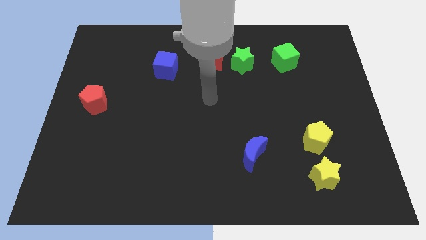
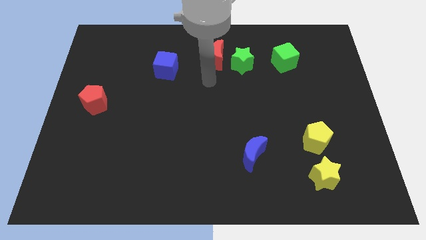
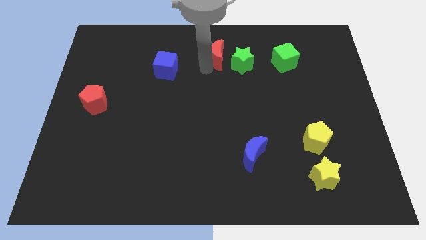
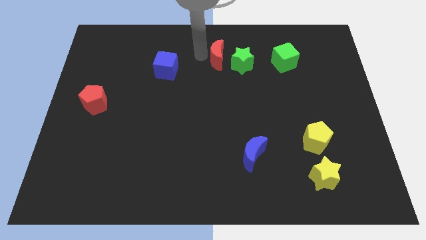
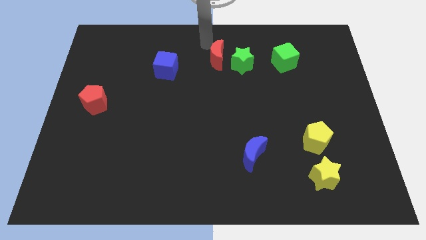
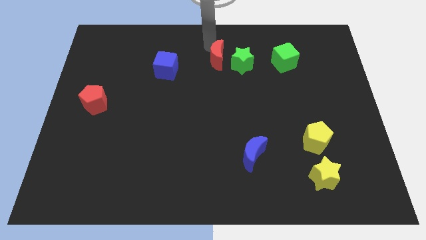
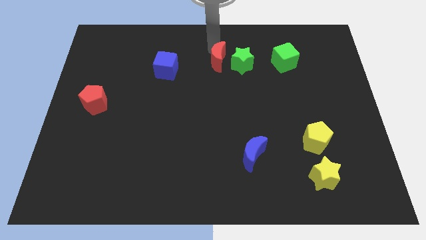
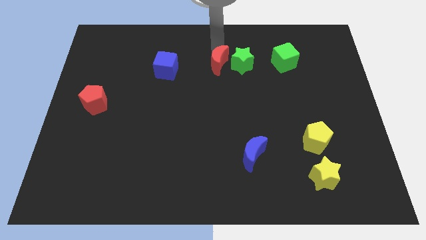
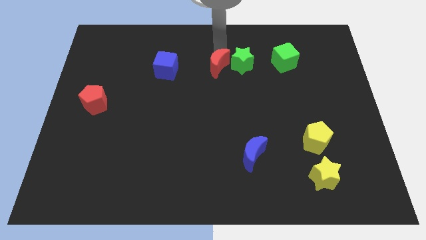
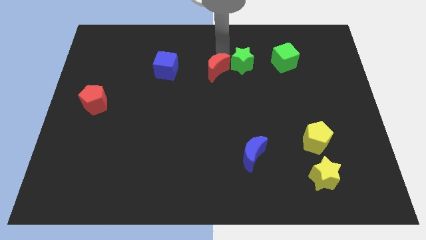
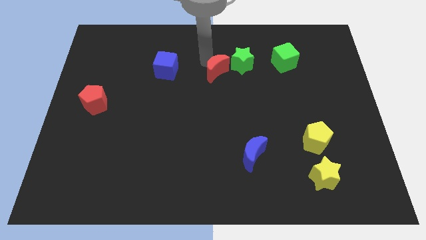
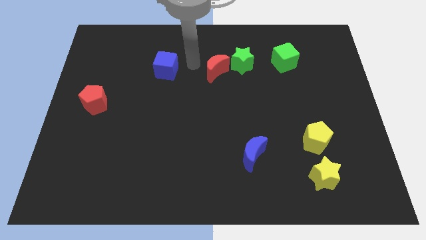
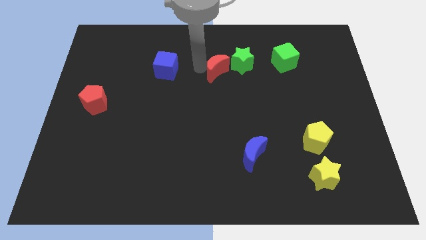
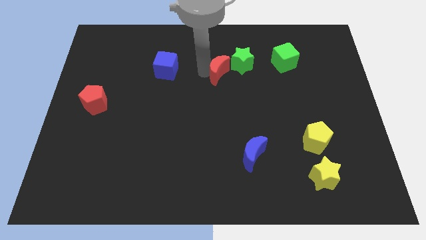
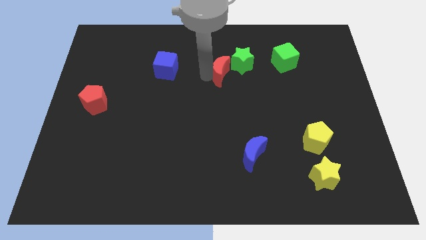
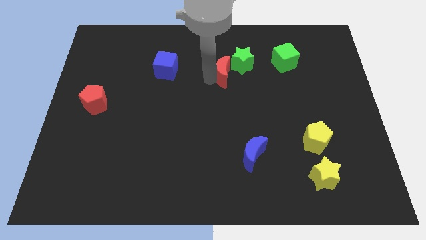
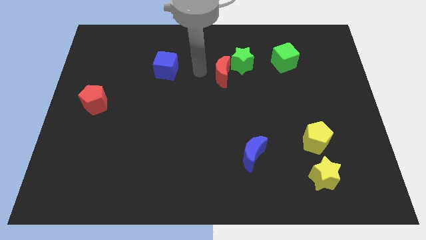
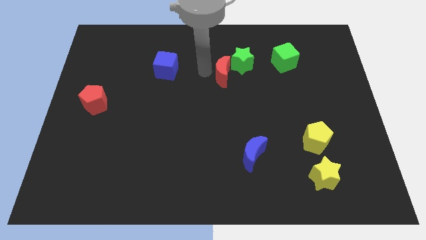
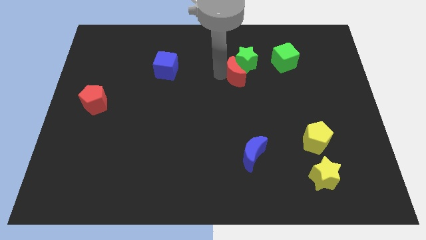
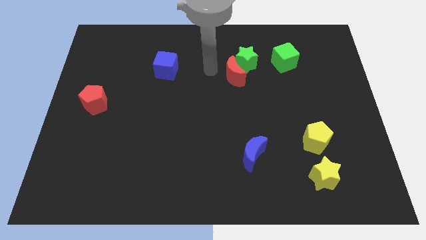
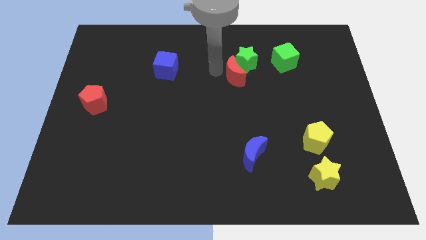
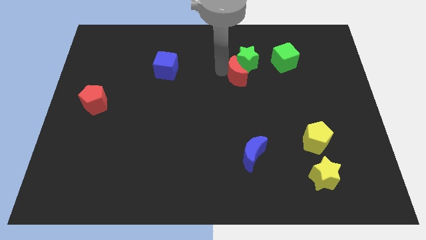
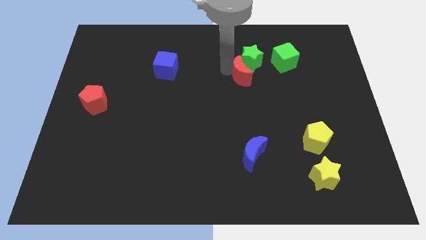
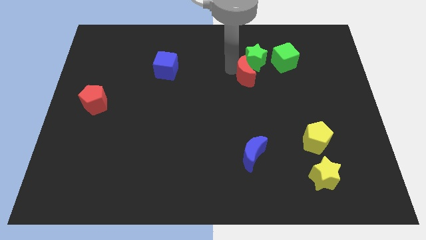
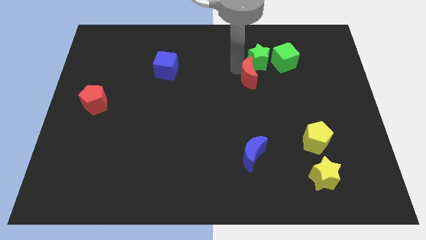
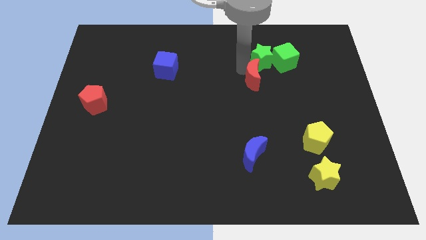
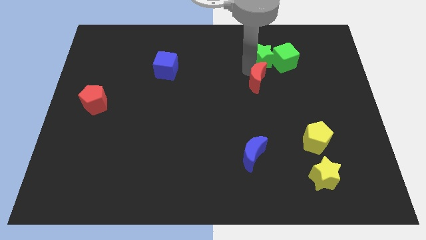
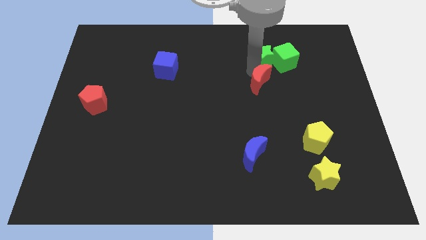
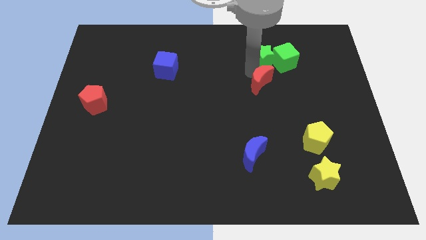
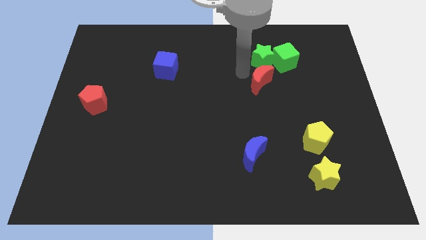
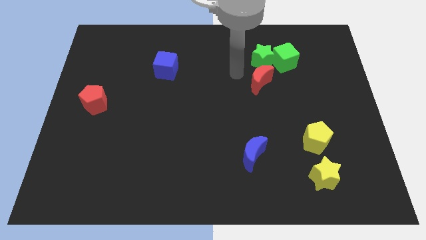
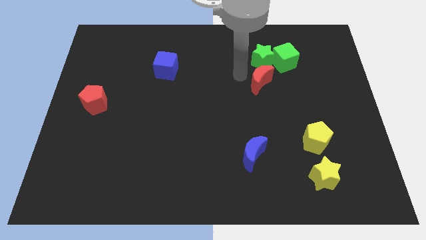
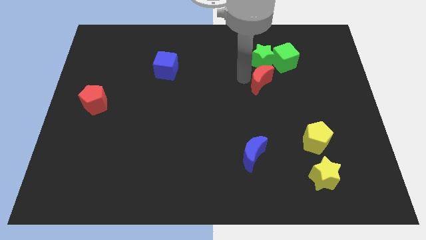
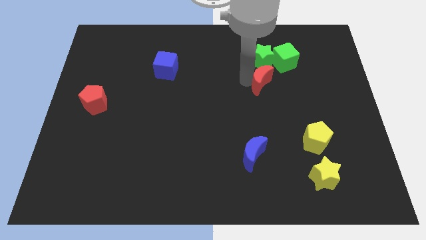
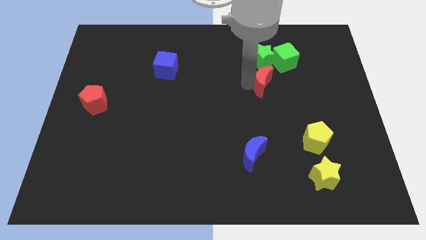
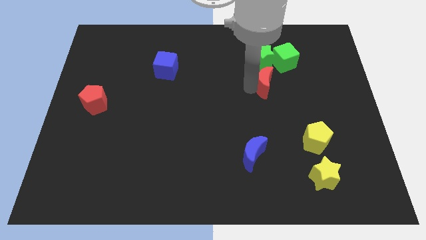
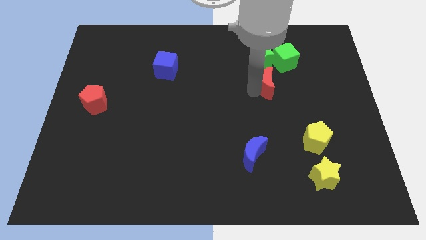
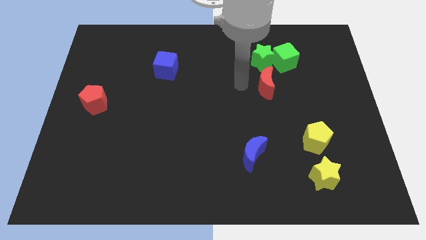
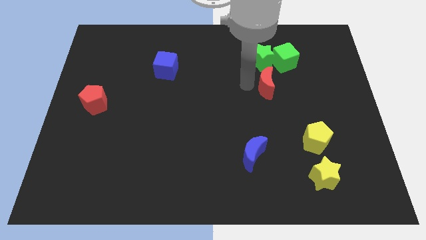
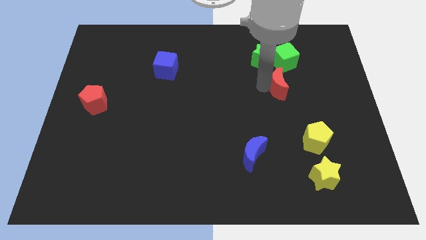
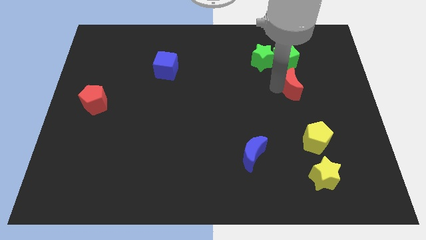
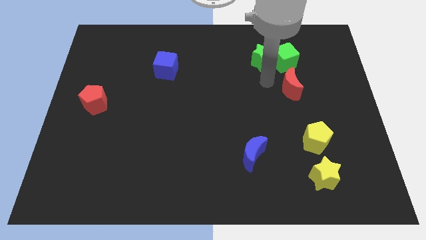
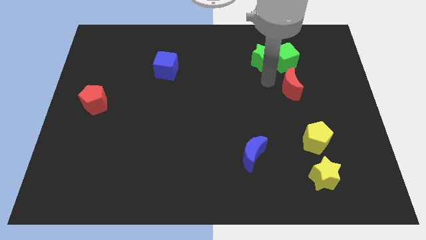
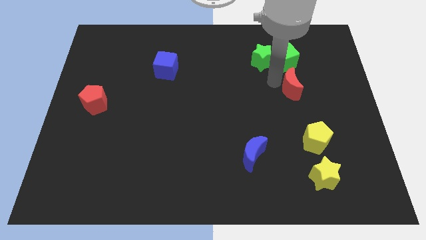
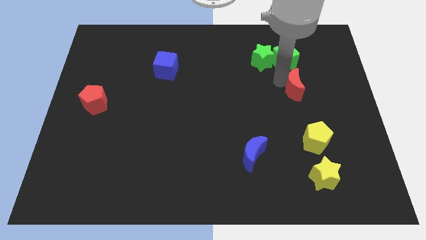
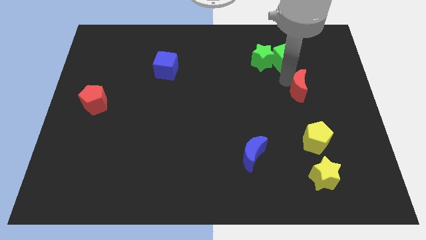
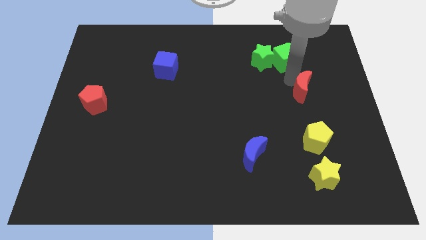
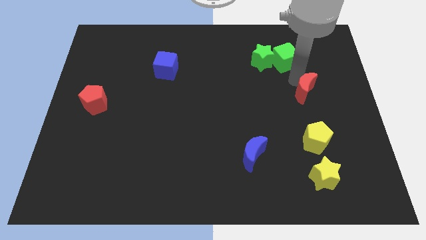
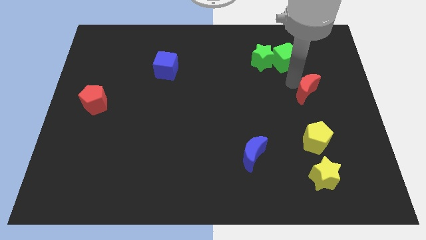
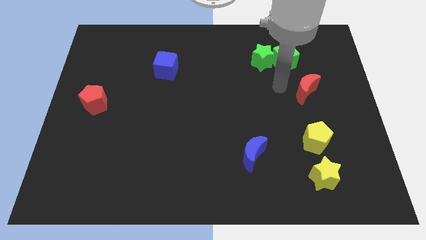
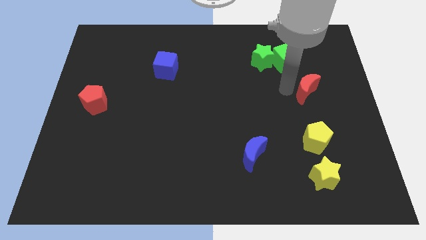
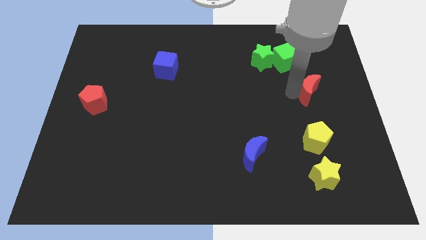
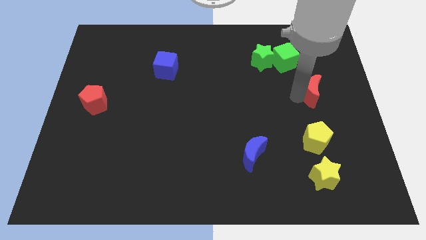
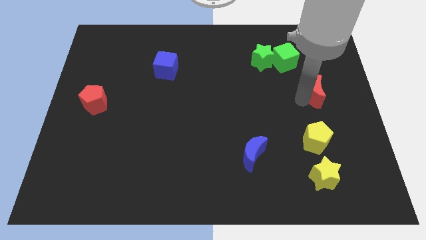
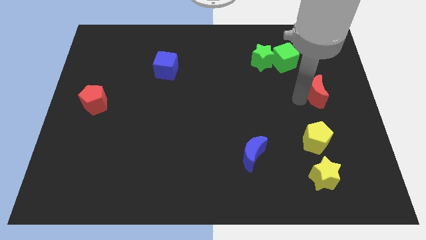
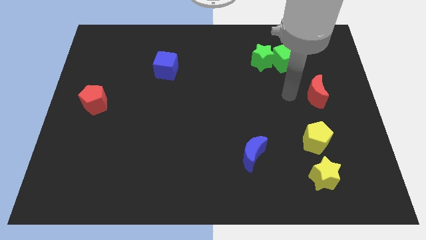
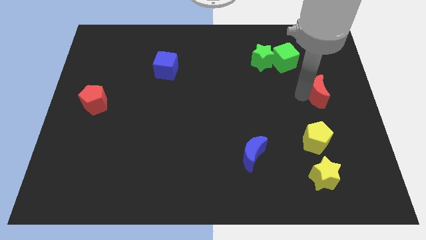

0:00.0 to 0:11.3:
put the red moon to the center right

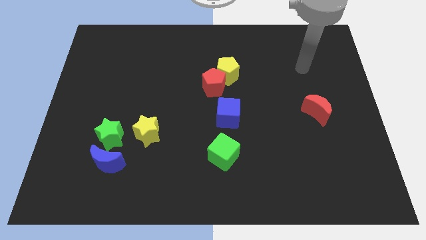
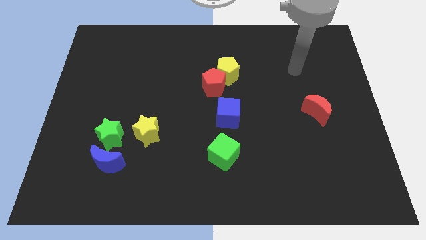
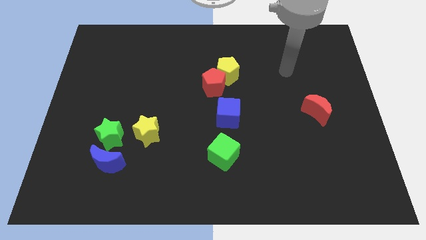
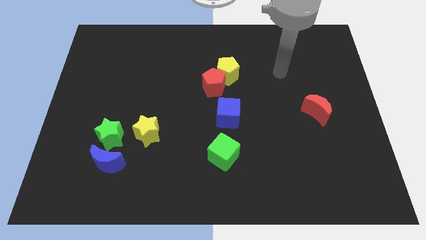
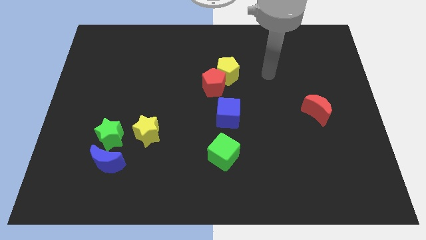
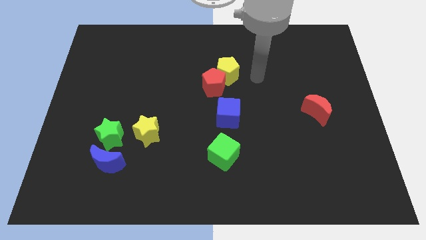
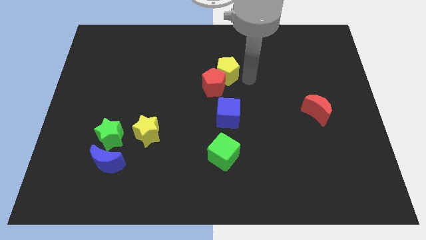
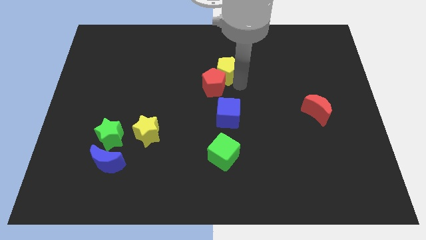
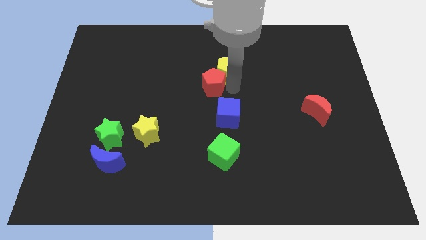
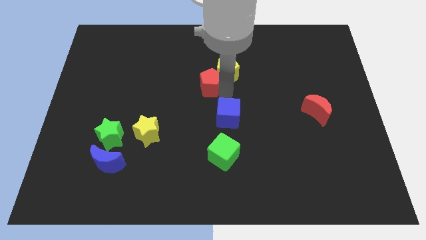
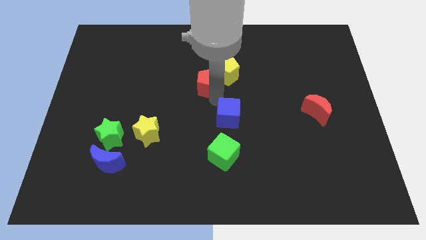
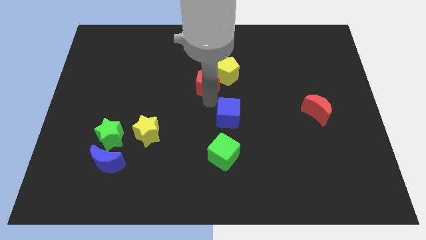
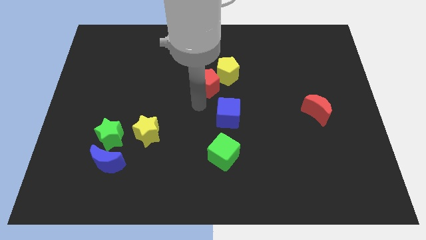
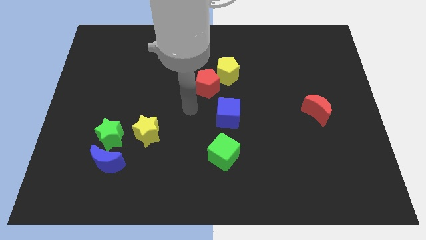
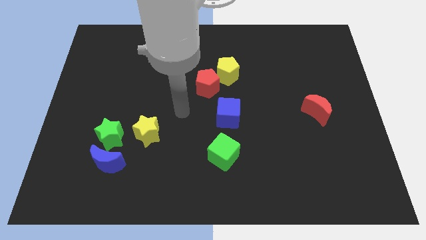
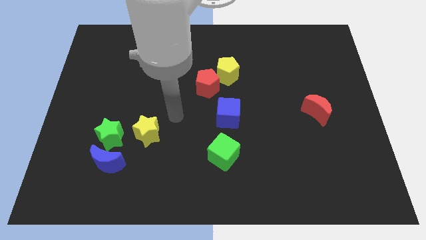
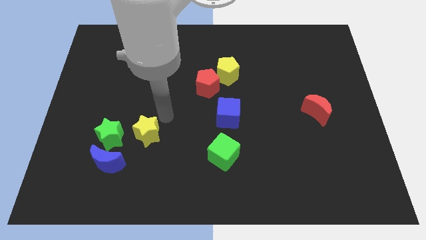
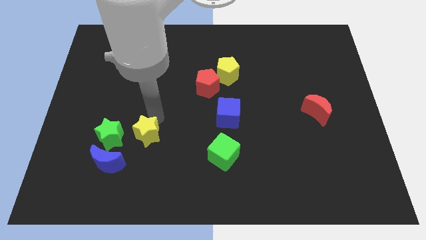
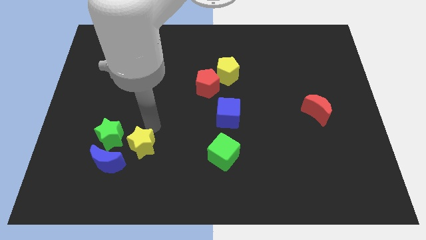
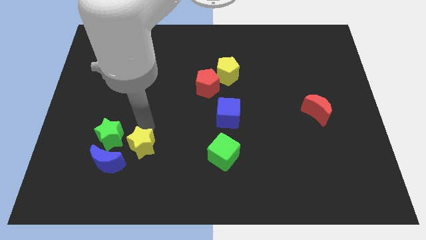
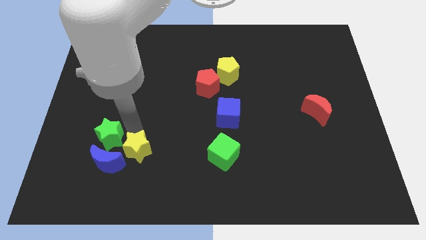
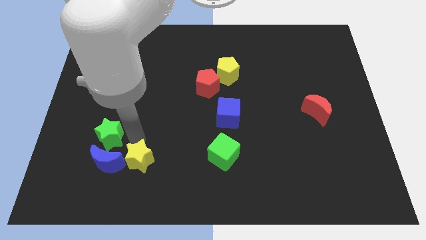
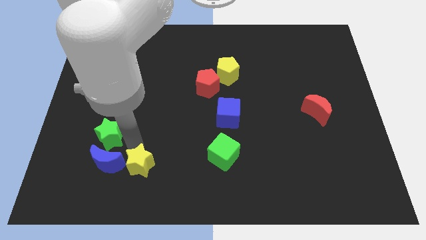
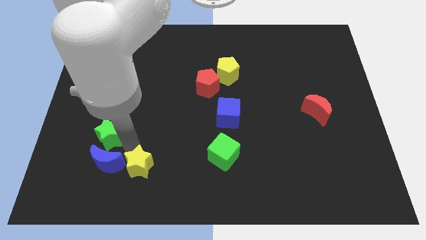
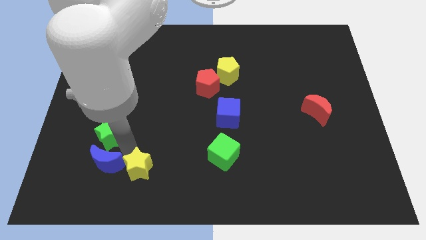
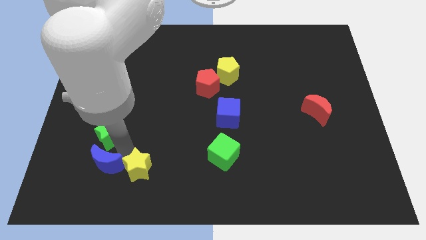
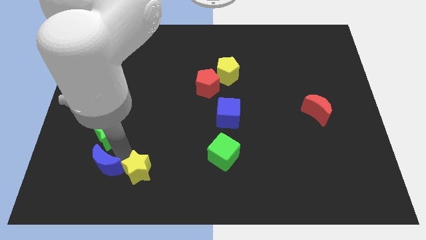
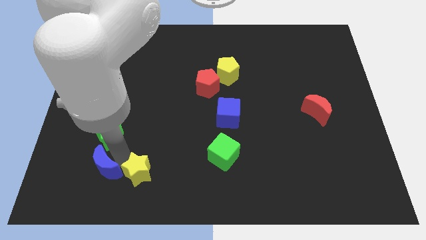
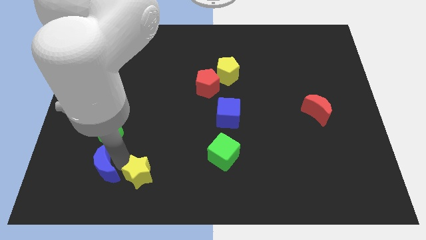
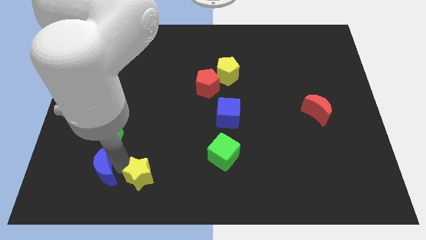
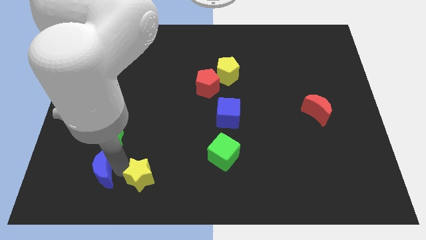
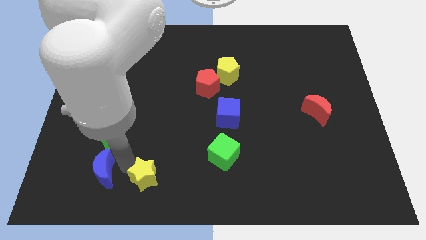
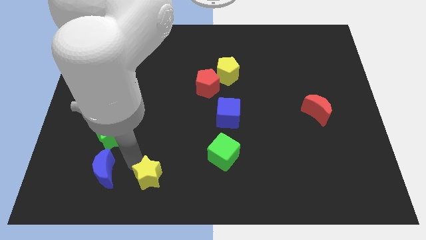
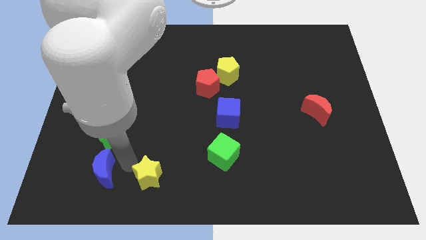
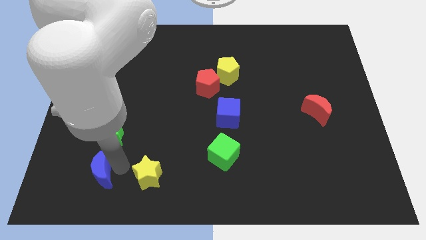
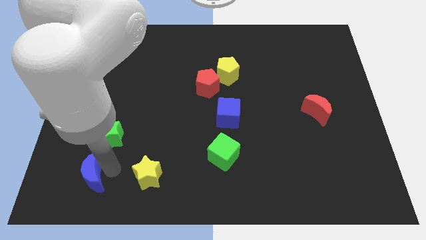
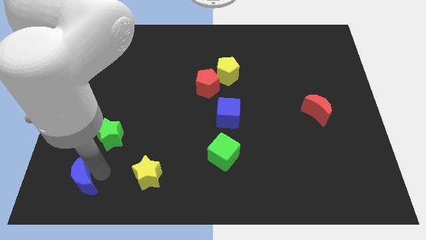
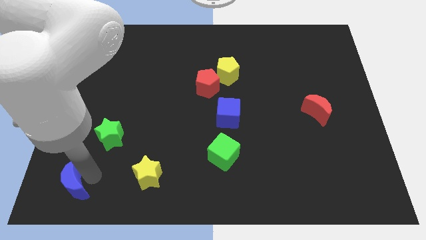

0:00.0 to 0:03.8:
push the blue moon to the bottom left of the board
